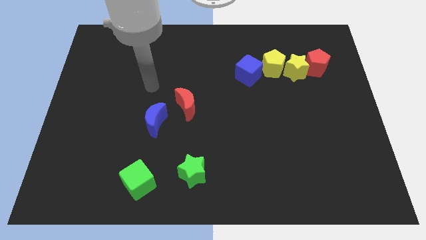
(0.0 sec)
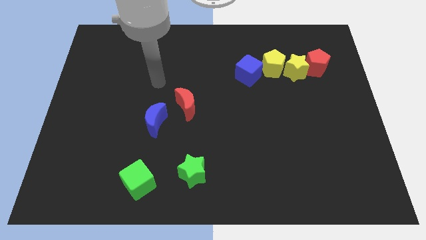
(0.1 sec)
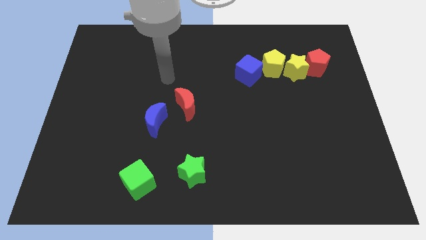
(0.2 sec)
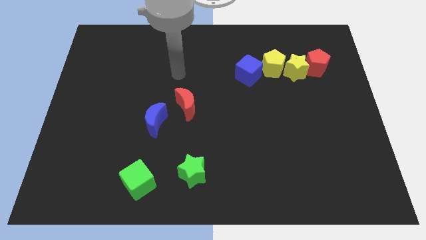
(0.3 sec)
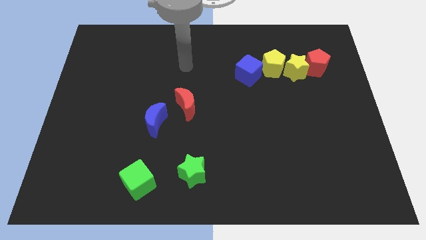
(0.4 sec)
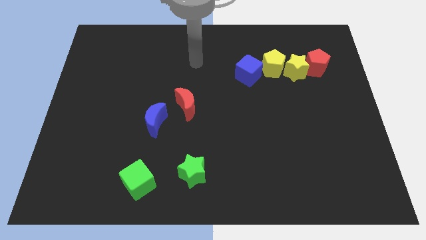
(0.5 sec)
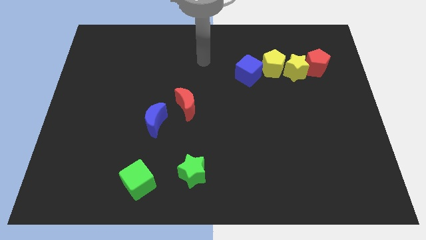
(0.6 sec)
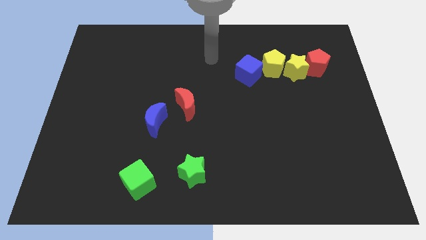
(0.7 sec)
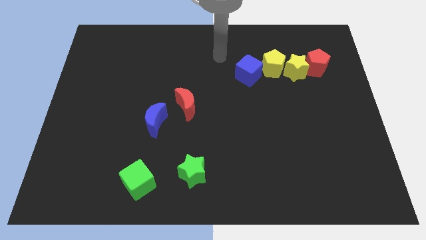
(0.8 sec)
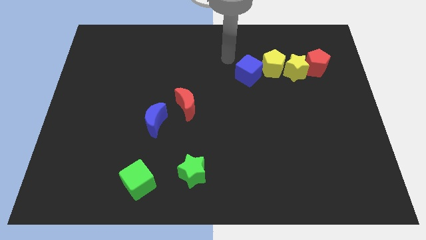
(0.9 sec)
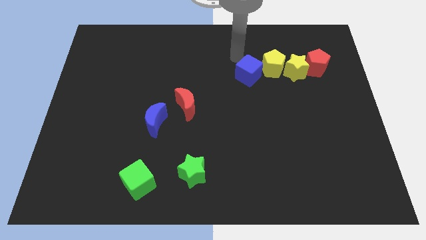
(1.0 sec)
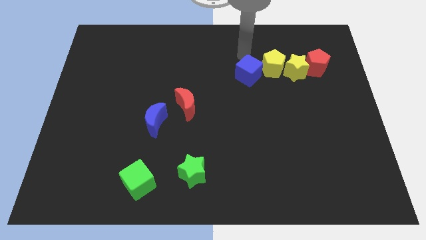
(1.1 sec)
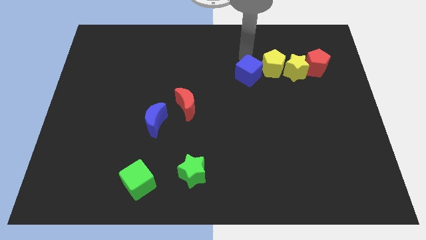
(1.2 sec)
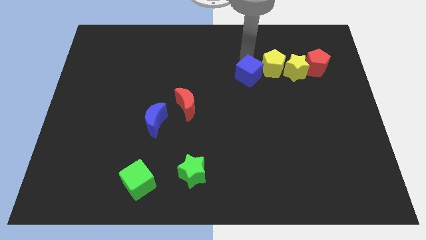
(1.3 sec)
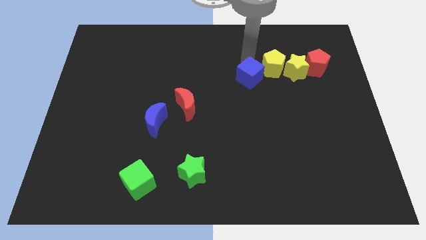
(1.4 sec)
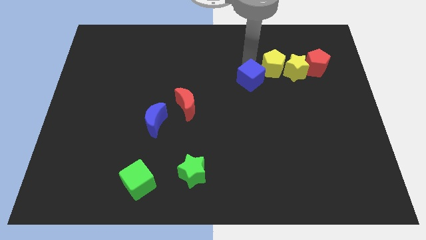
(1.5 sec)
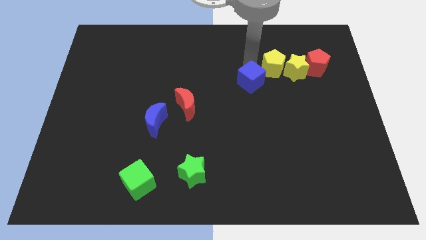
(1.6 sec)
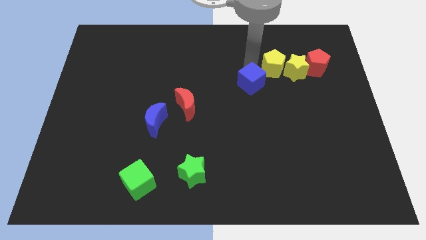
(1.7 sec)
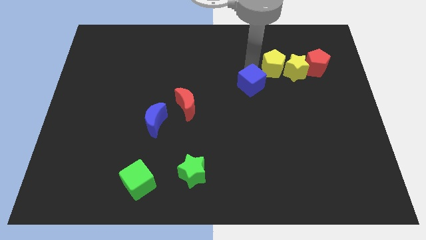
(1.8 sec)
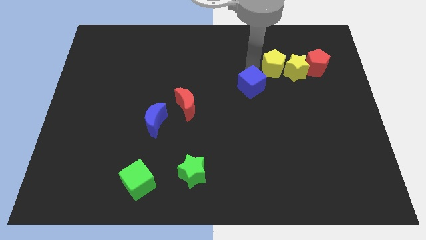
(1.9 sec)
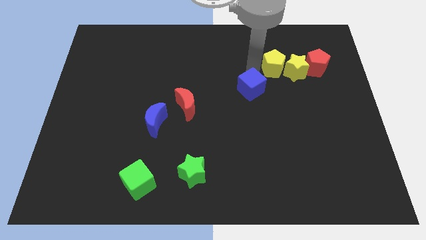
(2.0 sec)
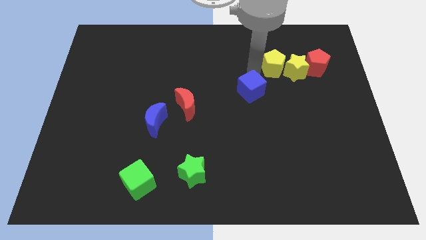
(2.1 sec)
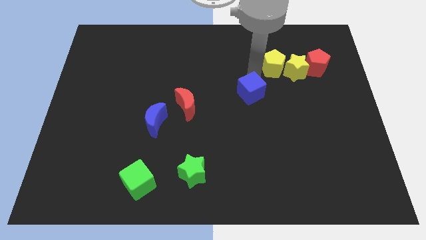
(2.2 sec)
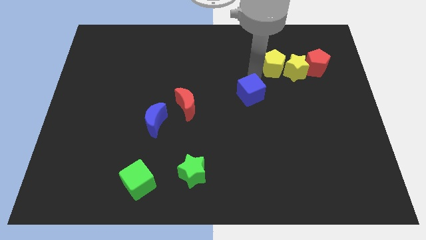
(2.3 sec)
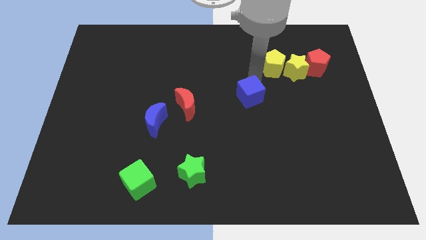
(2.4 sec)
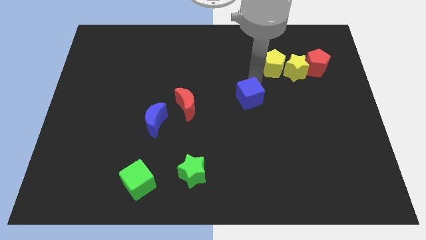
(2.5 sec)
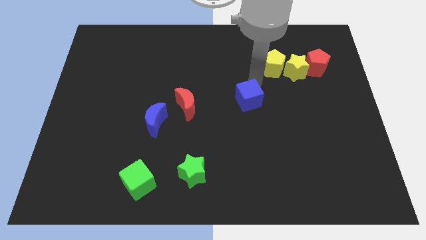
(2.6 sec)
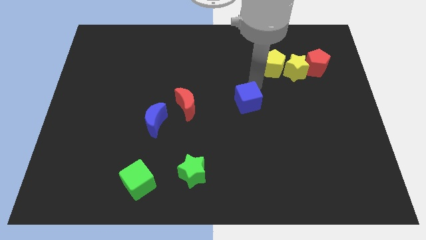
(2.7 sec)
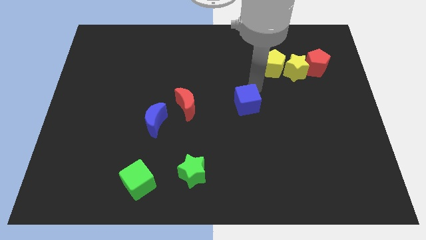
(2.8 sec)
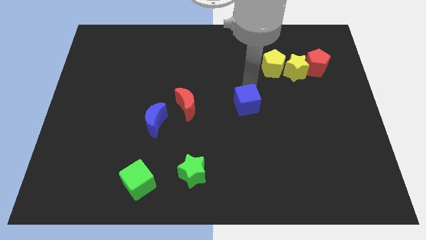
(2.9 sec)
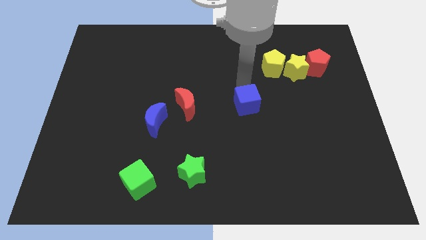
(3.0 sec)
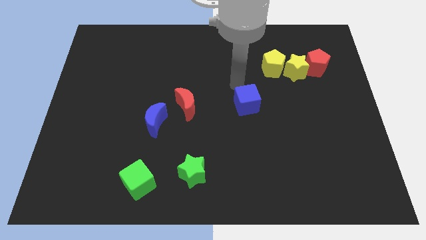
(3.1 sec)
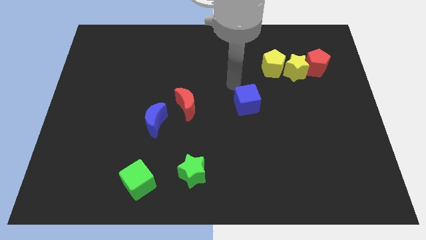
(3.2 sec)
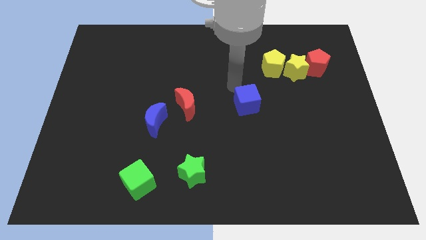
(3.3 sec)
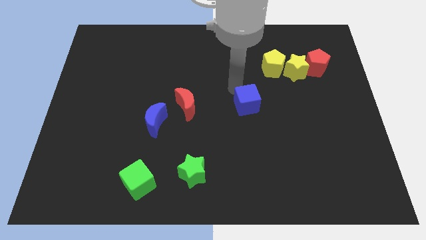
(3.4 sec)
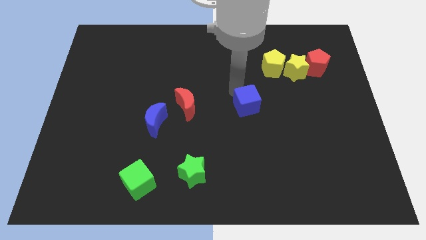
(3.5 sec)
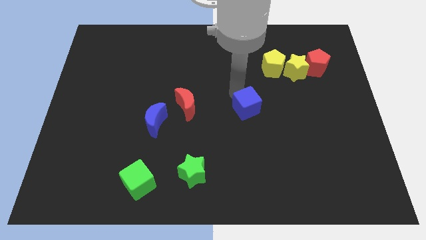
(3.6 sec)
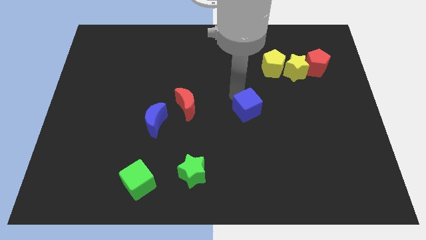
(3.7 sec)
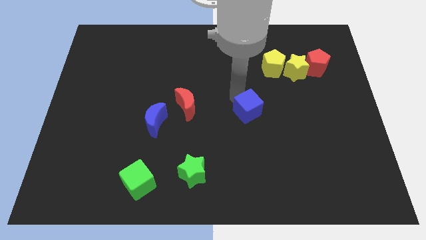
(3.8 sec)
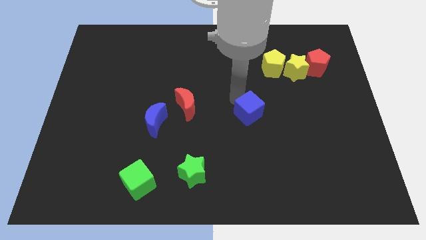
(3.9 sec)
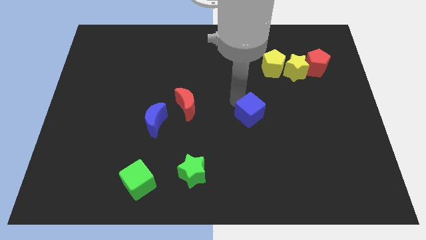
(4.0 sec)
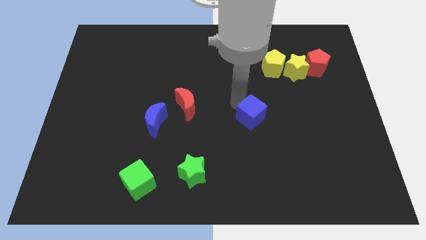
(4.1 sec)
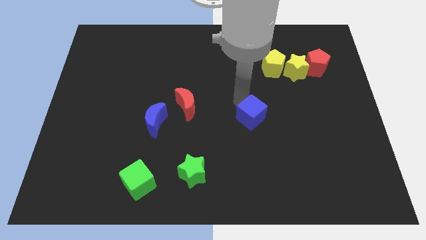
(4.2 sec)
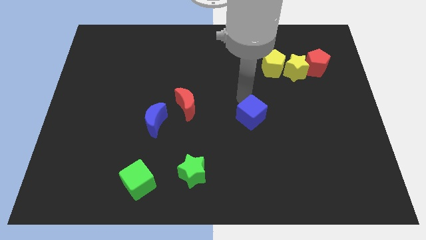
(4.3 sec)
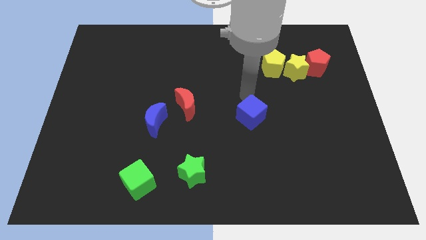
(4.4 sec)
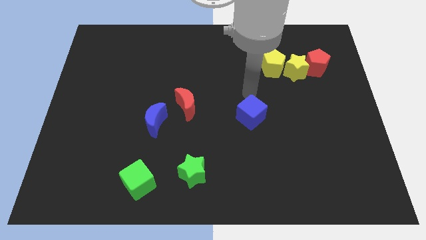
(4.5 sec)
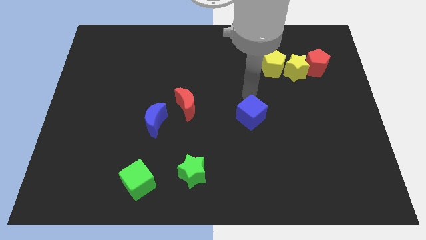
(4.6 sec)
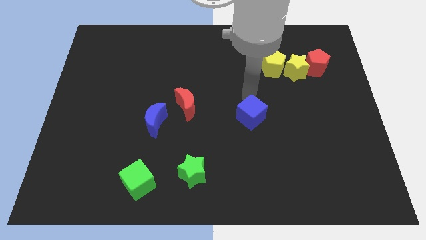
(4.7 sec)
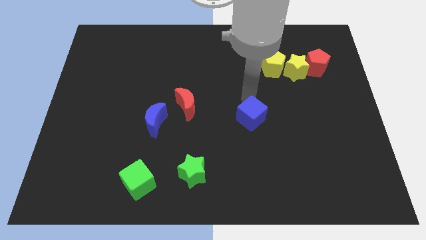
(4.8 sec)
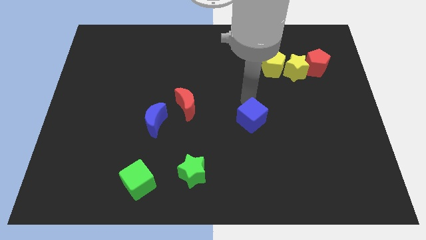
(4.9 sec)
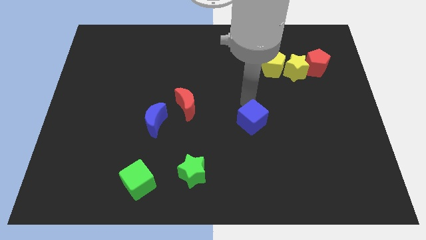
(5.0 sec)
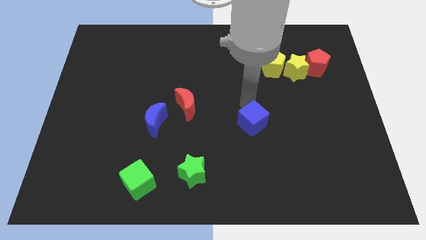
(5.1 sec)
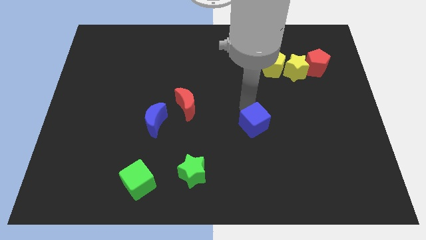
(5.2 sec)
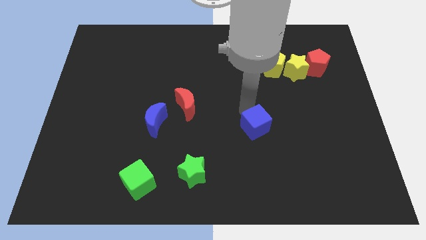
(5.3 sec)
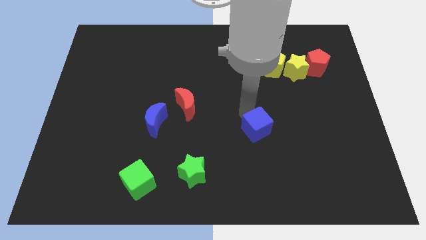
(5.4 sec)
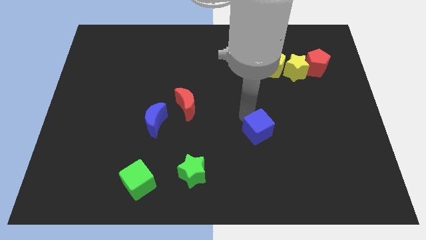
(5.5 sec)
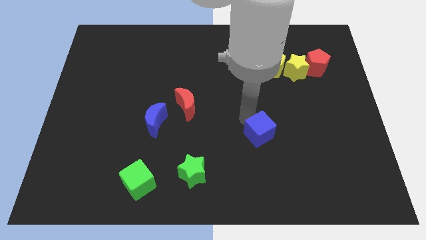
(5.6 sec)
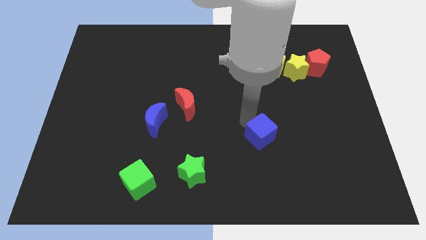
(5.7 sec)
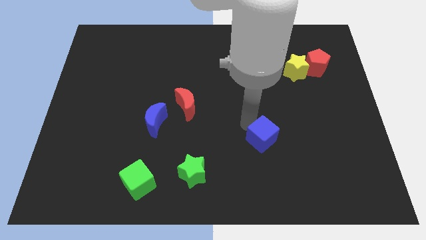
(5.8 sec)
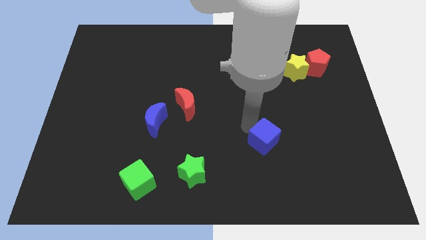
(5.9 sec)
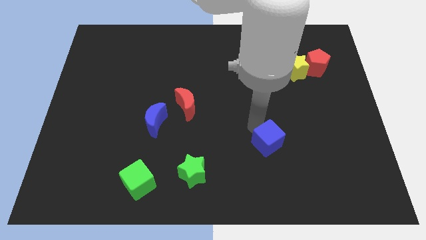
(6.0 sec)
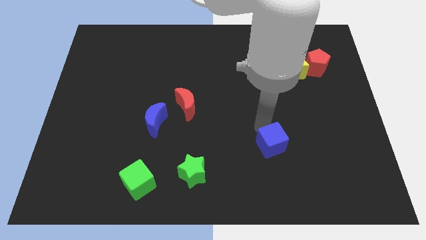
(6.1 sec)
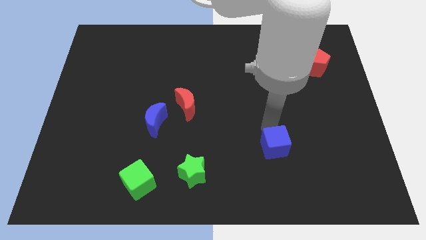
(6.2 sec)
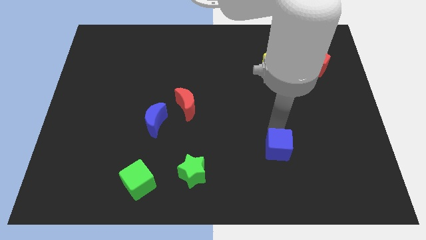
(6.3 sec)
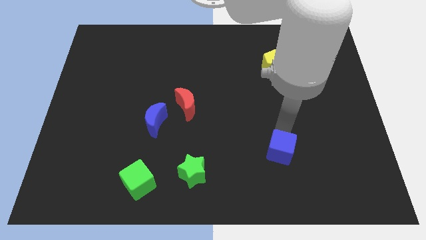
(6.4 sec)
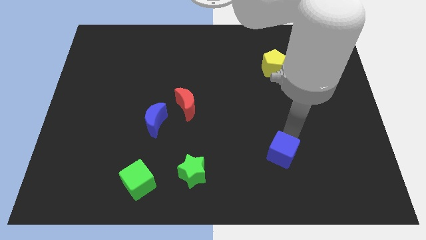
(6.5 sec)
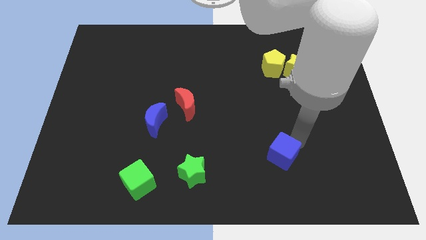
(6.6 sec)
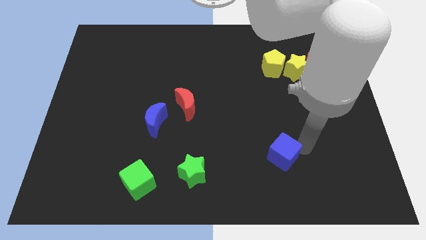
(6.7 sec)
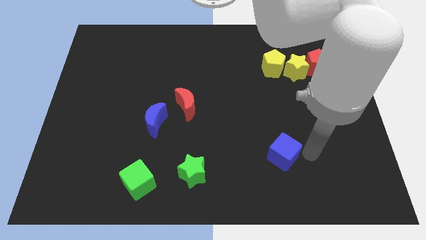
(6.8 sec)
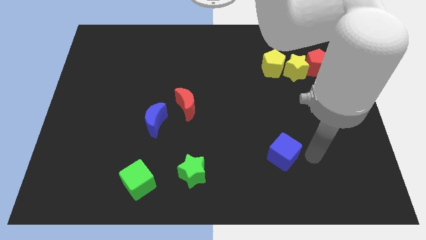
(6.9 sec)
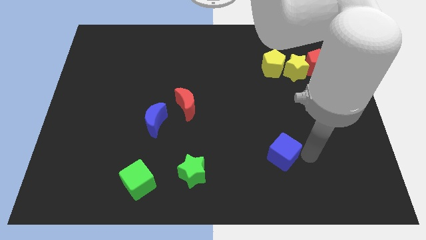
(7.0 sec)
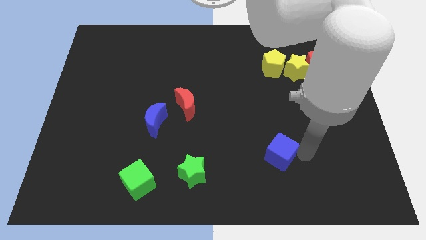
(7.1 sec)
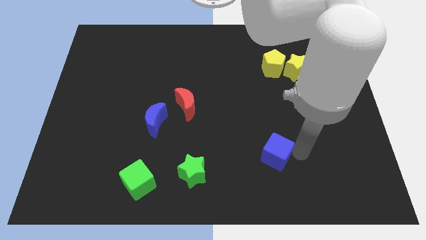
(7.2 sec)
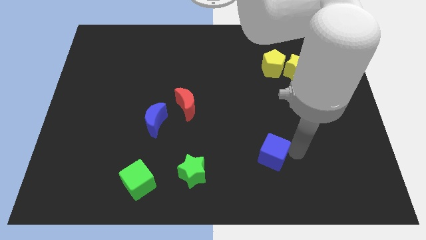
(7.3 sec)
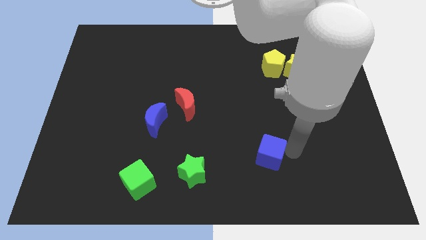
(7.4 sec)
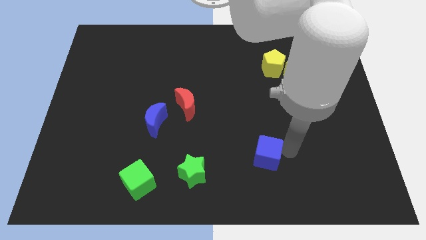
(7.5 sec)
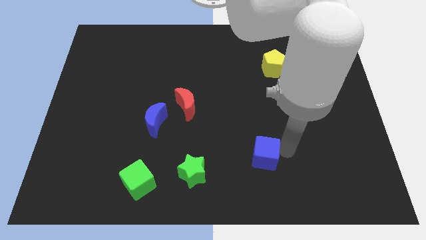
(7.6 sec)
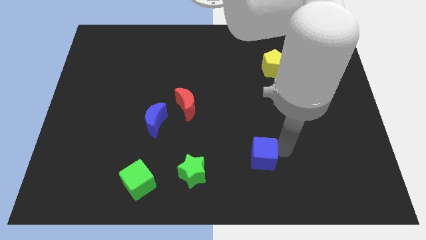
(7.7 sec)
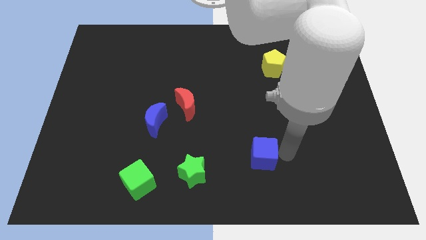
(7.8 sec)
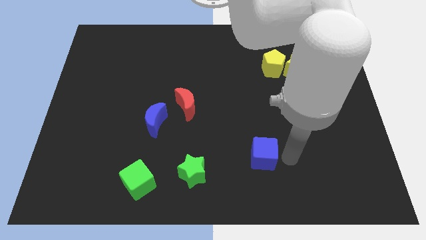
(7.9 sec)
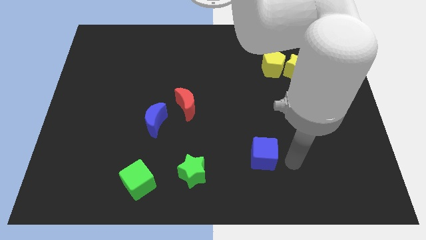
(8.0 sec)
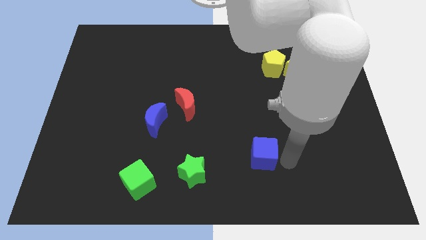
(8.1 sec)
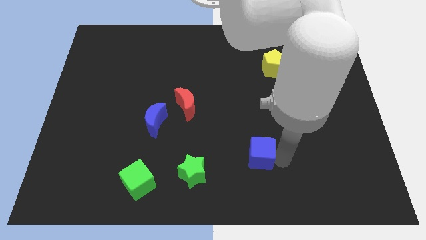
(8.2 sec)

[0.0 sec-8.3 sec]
slide the blue cube to the right of the green star
